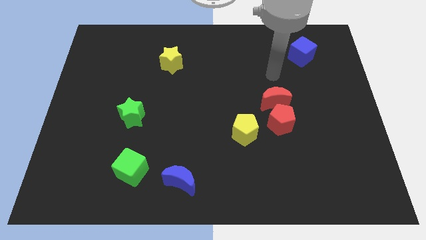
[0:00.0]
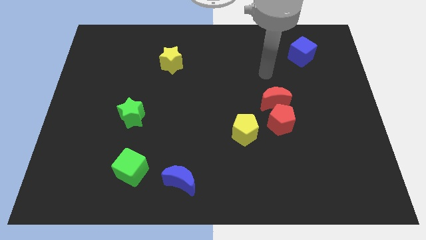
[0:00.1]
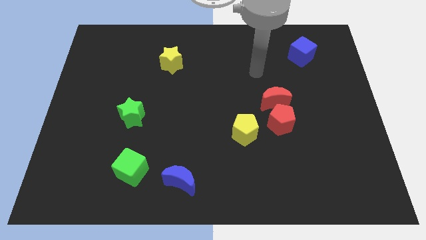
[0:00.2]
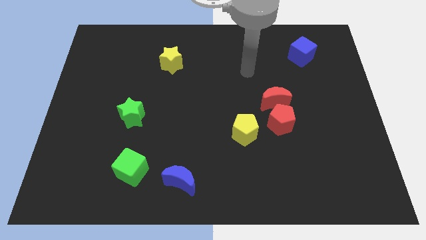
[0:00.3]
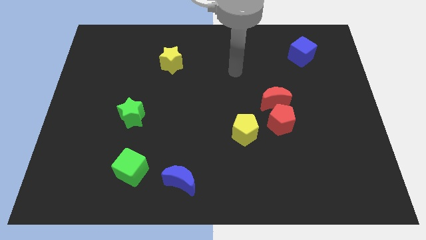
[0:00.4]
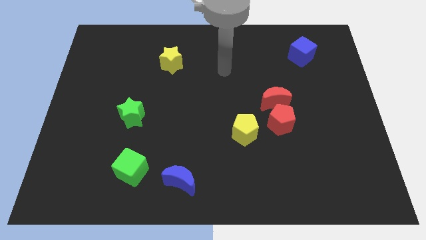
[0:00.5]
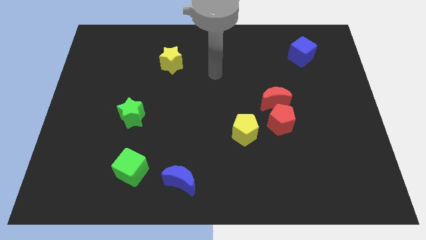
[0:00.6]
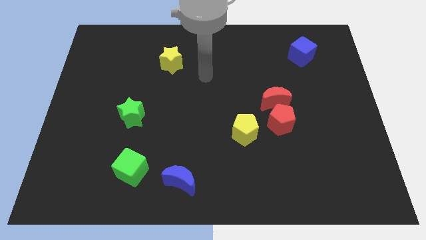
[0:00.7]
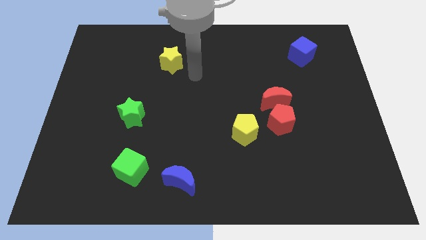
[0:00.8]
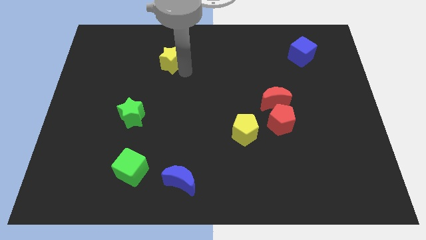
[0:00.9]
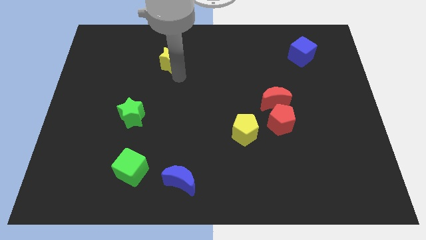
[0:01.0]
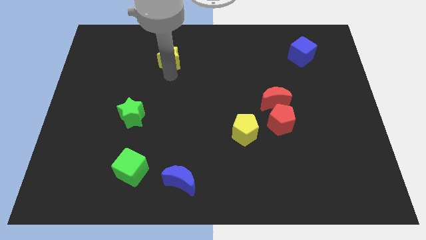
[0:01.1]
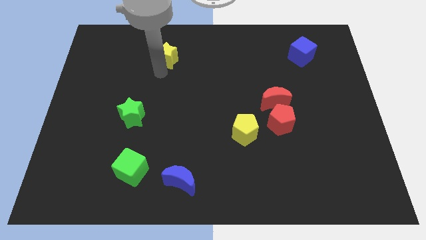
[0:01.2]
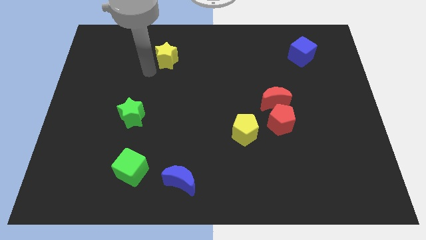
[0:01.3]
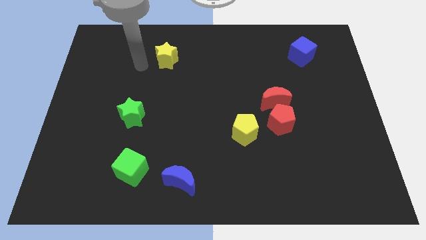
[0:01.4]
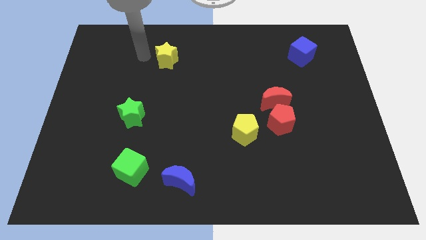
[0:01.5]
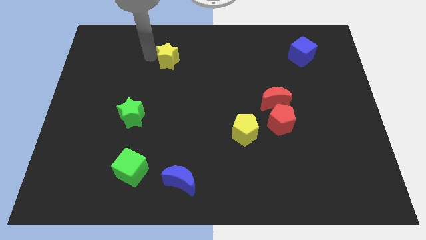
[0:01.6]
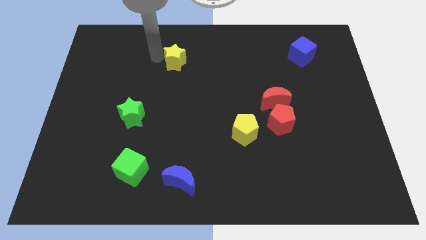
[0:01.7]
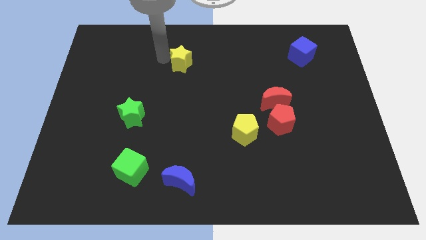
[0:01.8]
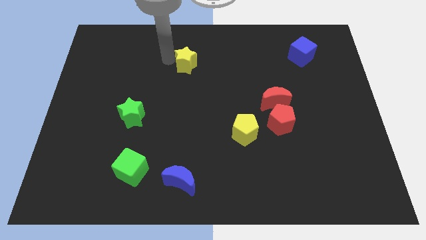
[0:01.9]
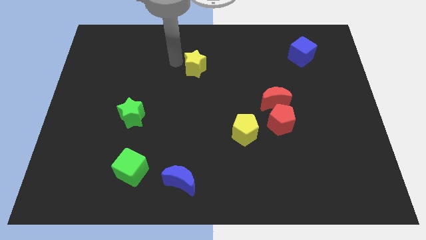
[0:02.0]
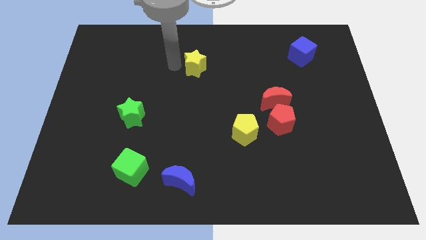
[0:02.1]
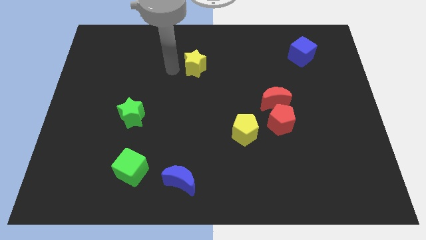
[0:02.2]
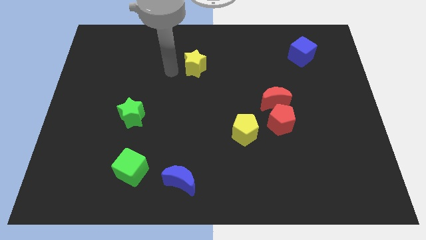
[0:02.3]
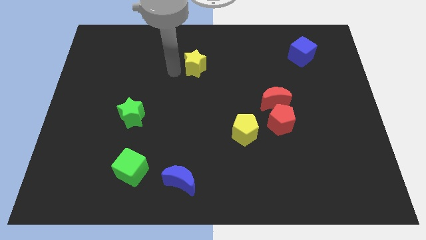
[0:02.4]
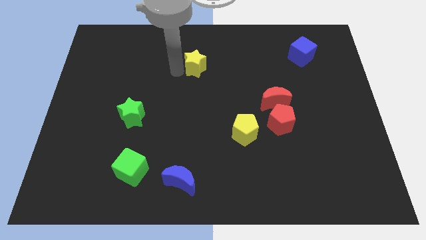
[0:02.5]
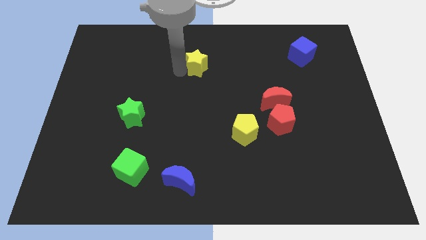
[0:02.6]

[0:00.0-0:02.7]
move the yellow star right a little

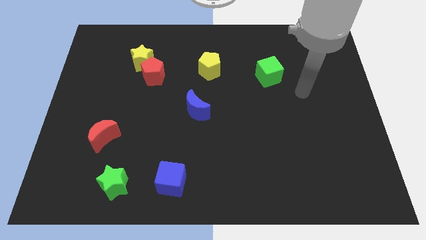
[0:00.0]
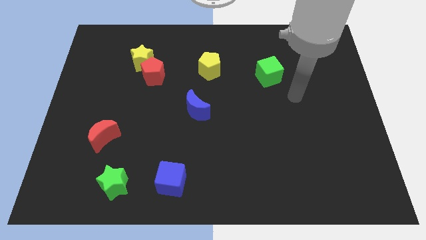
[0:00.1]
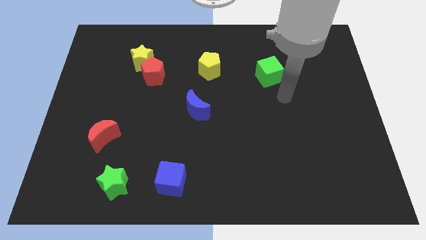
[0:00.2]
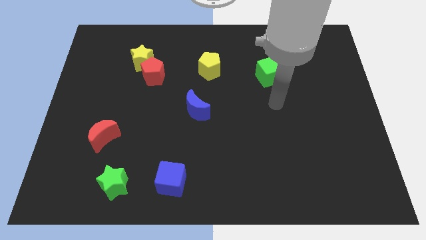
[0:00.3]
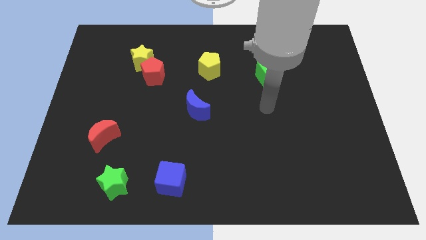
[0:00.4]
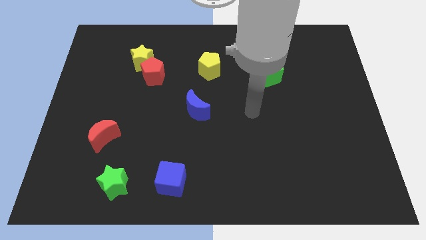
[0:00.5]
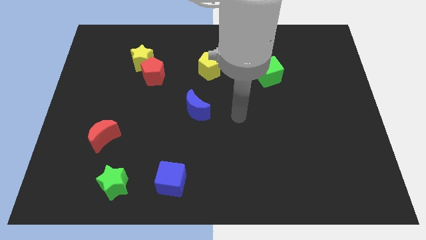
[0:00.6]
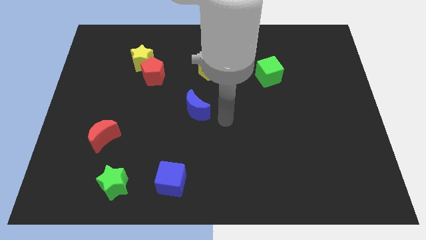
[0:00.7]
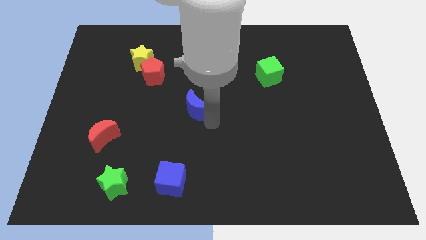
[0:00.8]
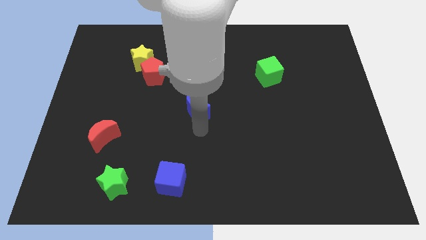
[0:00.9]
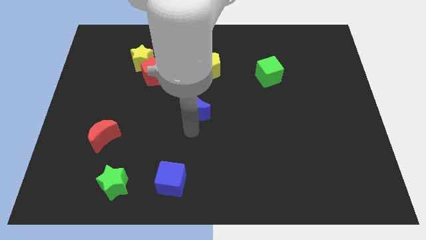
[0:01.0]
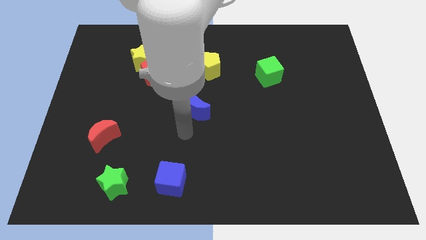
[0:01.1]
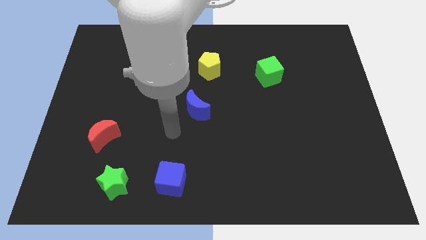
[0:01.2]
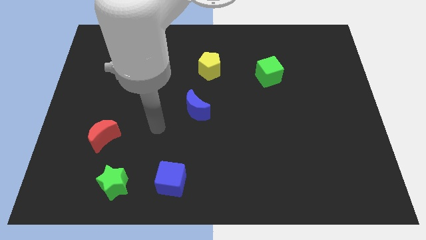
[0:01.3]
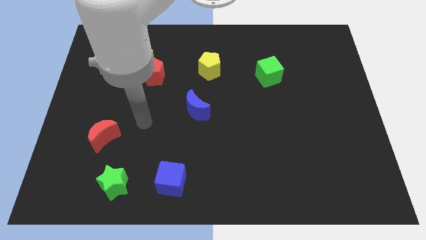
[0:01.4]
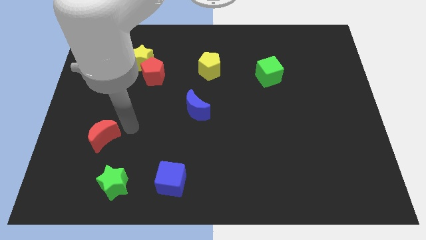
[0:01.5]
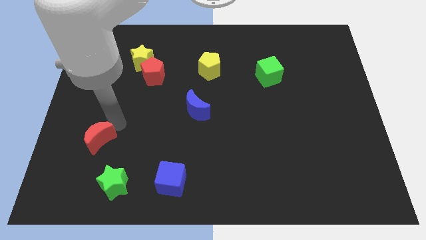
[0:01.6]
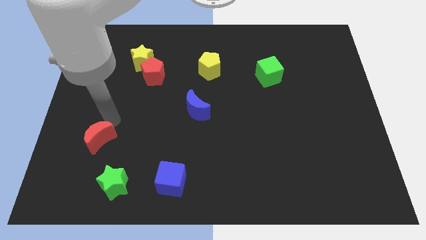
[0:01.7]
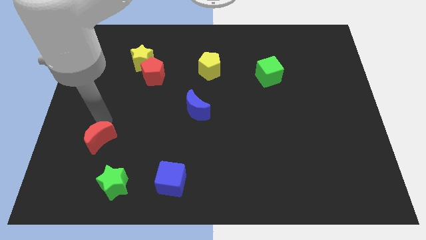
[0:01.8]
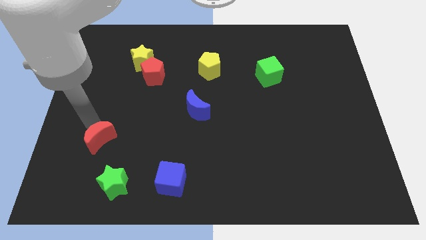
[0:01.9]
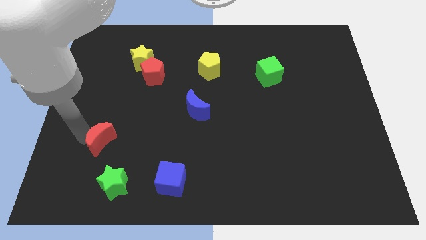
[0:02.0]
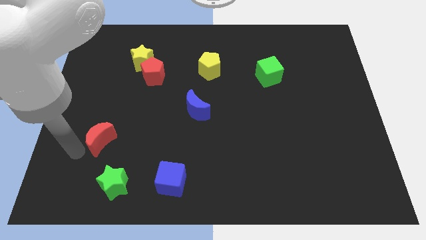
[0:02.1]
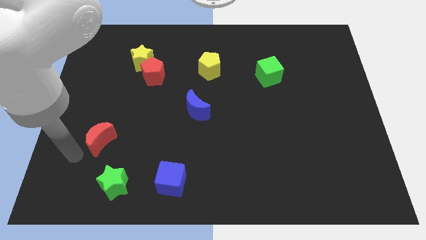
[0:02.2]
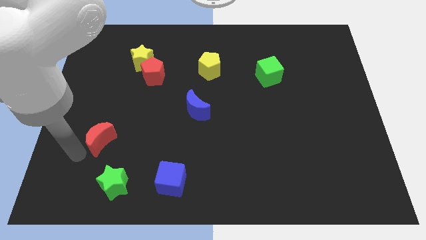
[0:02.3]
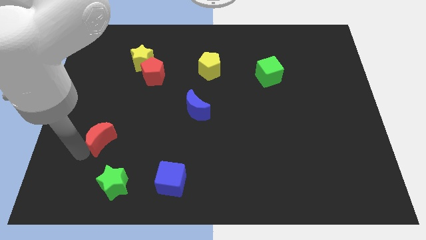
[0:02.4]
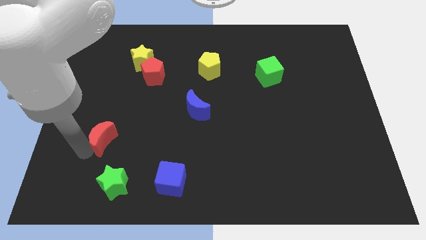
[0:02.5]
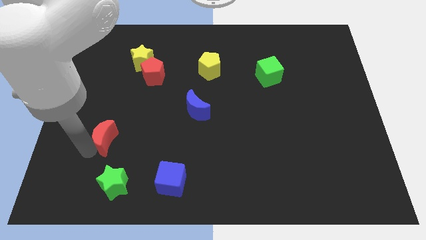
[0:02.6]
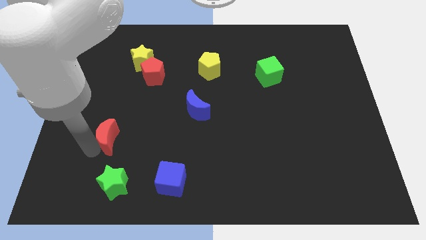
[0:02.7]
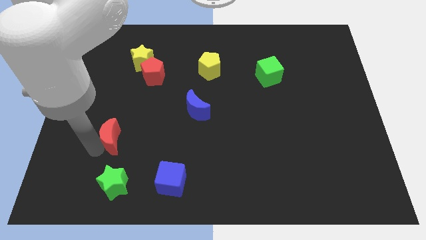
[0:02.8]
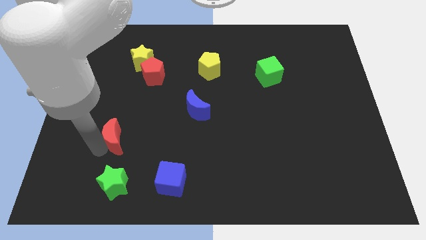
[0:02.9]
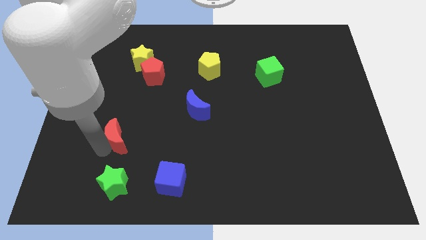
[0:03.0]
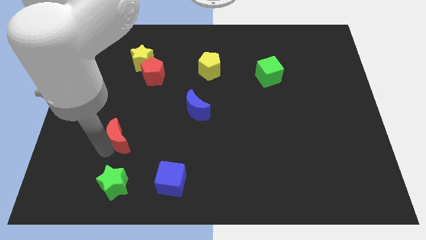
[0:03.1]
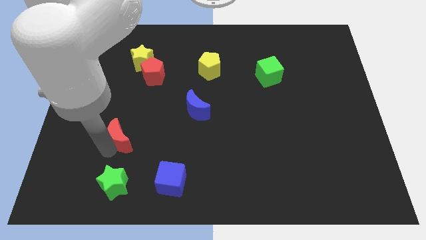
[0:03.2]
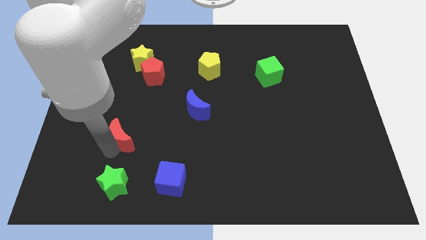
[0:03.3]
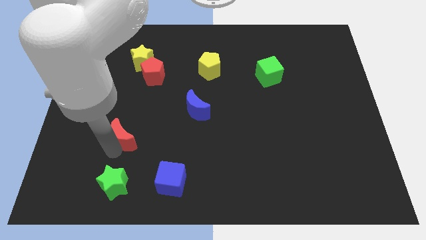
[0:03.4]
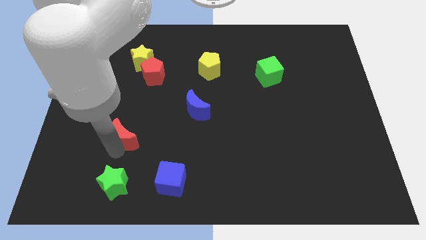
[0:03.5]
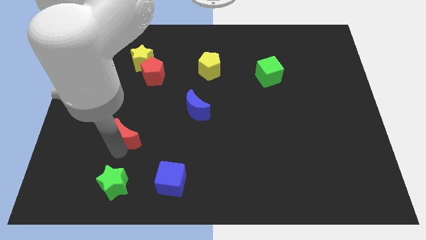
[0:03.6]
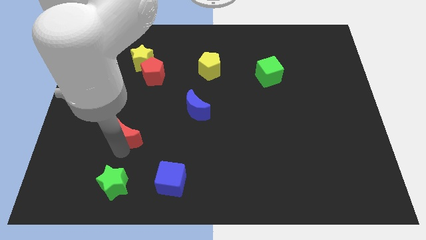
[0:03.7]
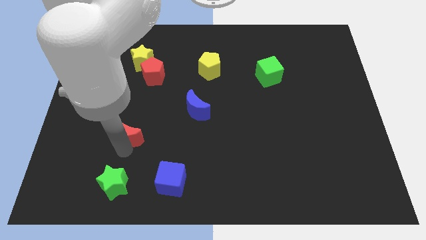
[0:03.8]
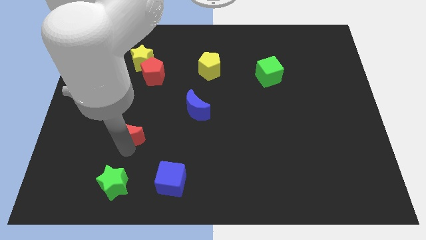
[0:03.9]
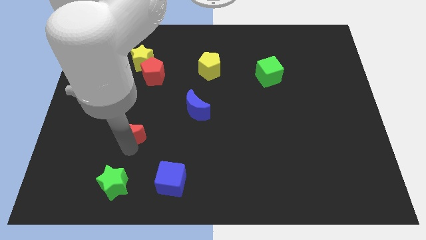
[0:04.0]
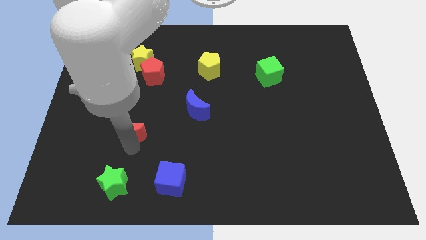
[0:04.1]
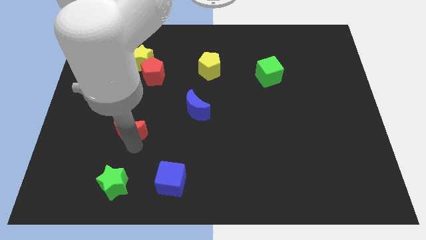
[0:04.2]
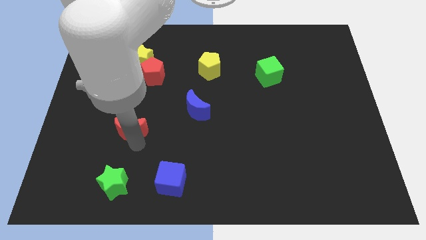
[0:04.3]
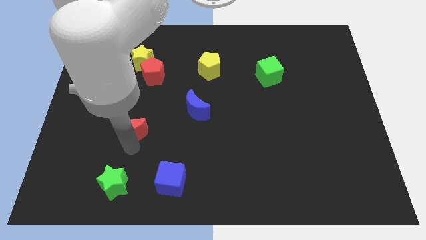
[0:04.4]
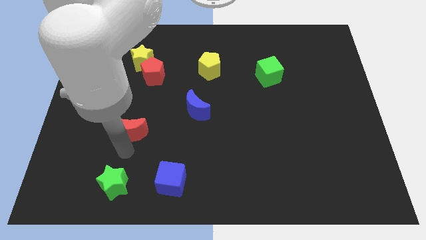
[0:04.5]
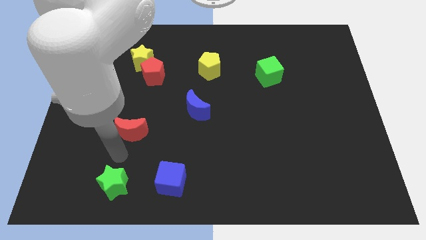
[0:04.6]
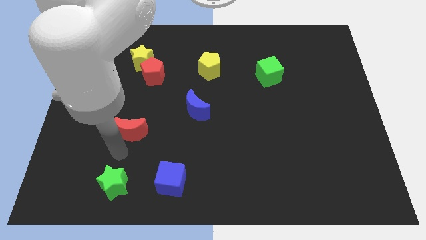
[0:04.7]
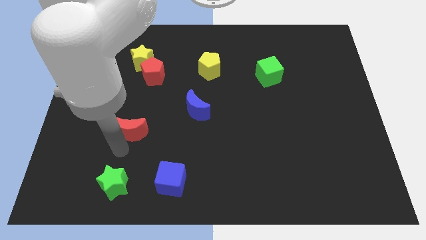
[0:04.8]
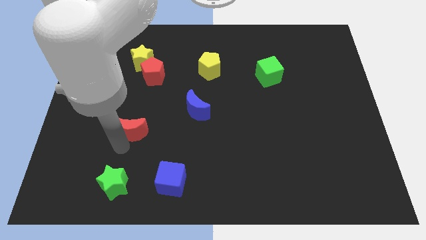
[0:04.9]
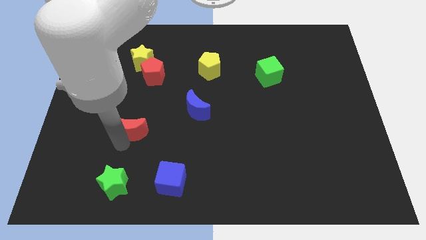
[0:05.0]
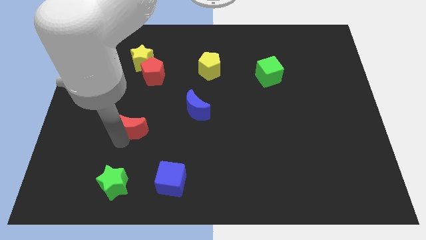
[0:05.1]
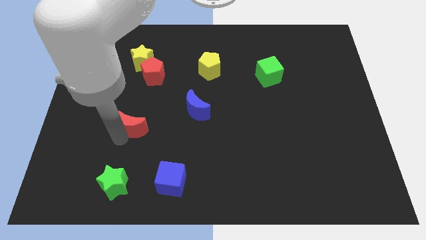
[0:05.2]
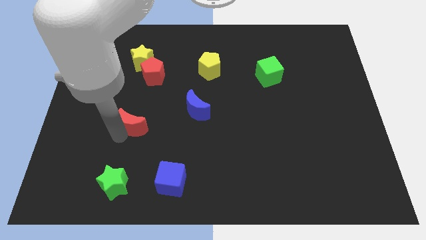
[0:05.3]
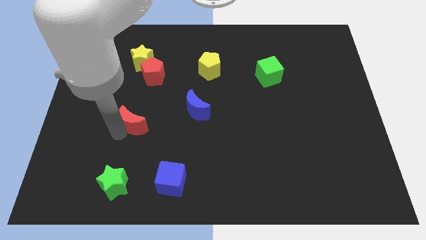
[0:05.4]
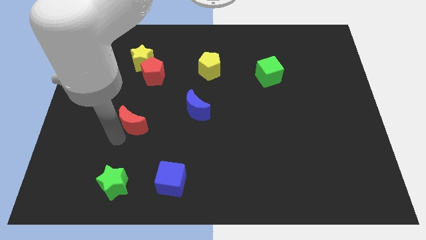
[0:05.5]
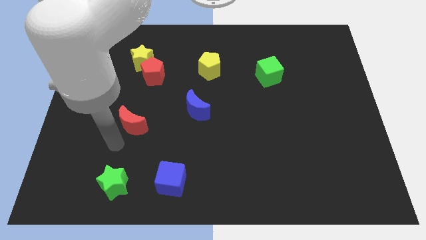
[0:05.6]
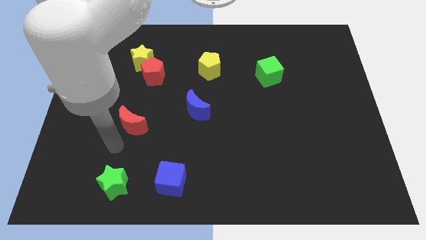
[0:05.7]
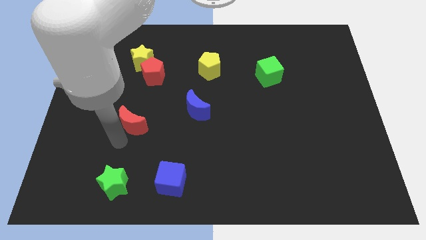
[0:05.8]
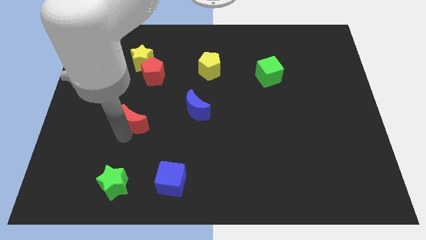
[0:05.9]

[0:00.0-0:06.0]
move the red moon a little bit up and to the right diagonally
